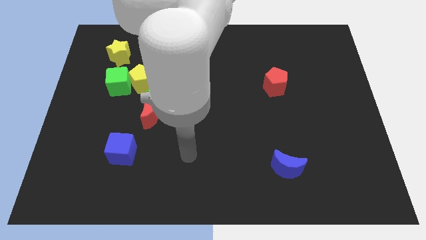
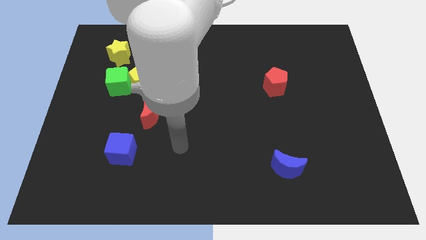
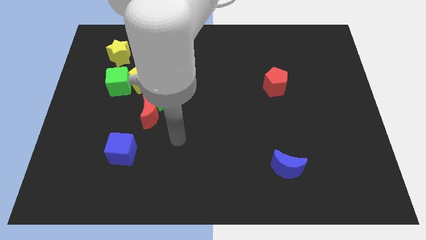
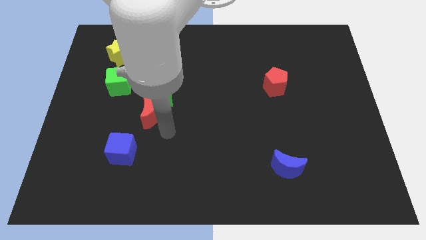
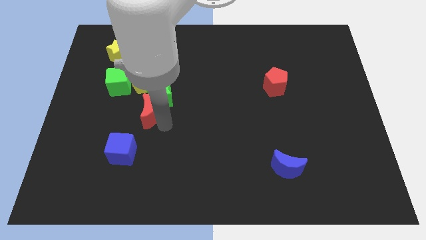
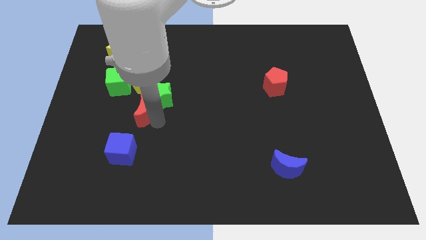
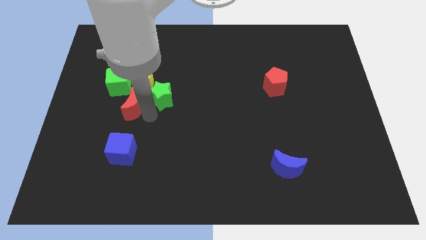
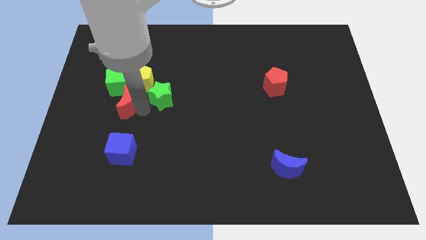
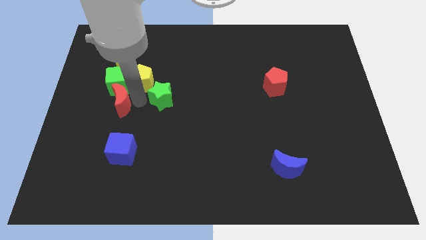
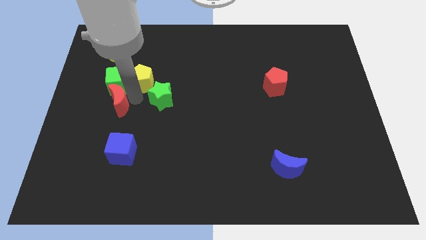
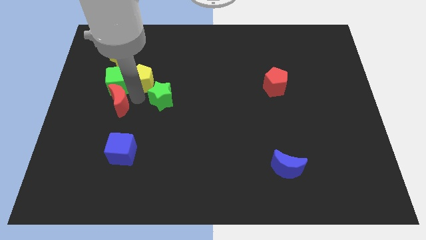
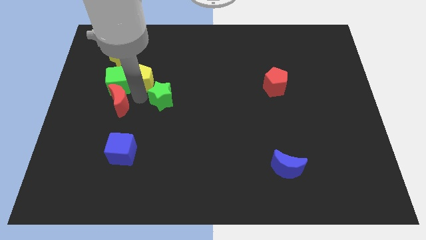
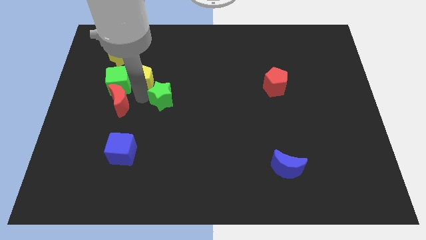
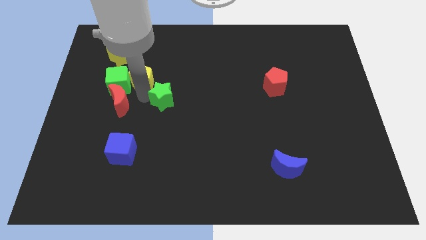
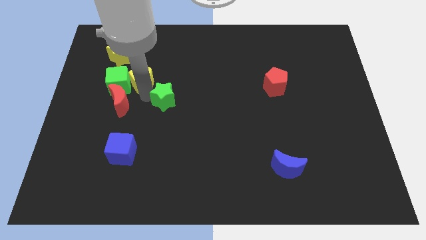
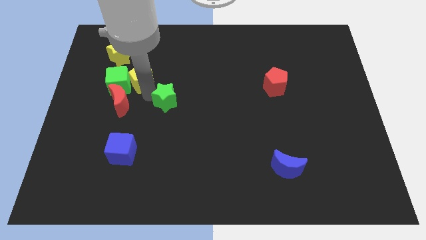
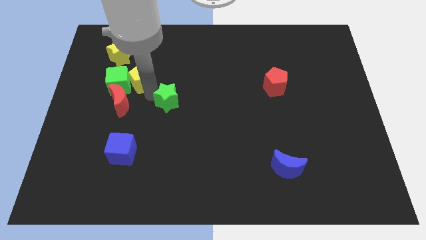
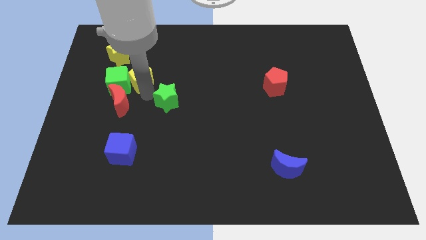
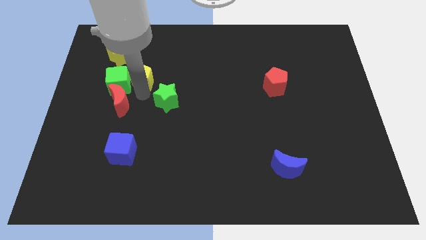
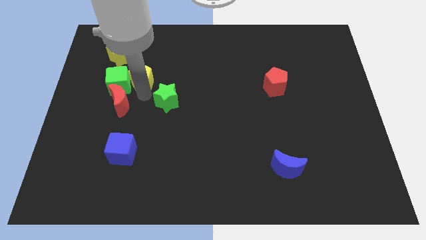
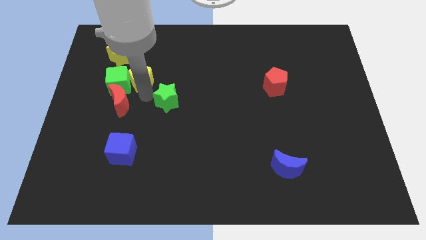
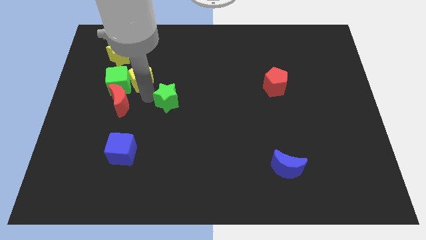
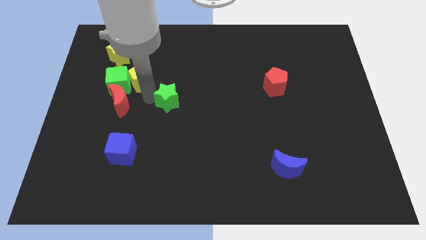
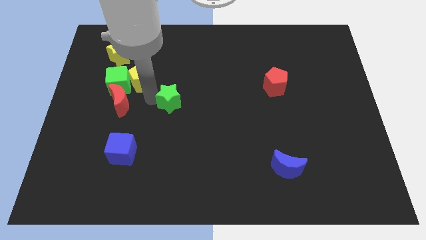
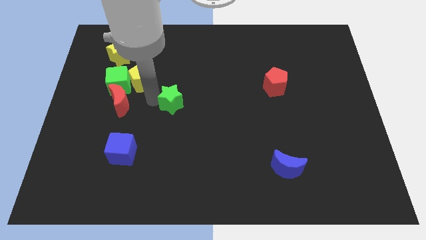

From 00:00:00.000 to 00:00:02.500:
move the green star away from the red moon and yellow pentagon

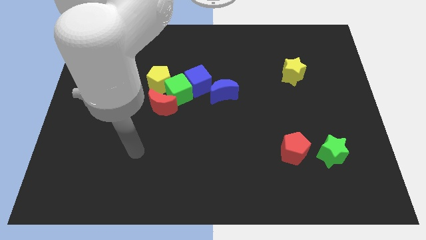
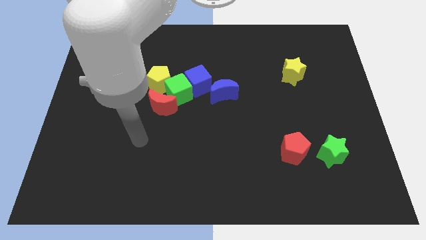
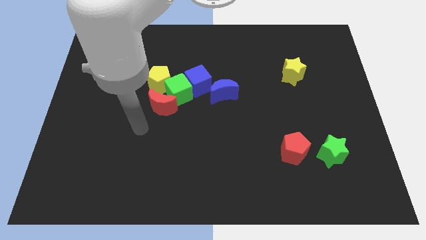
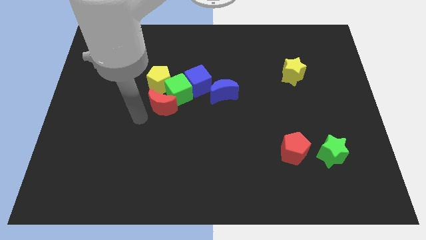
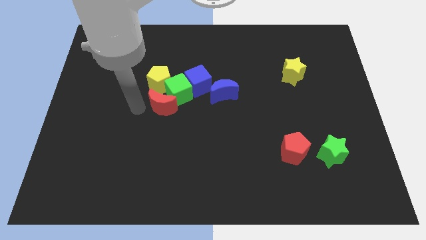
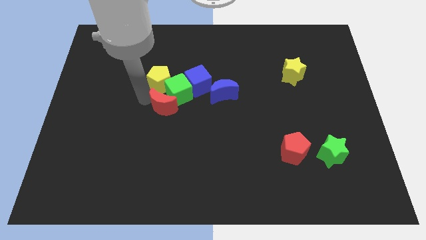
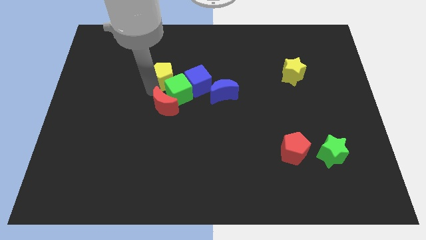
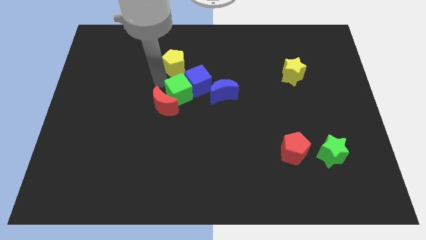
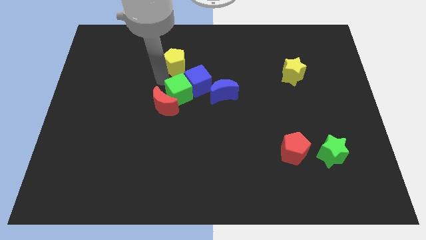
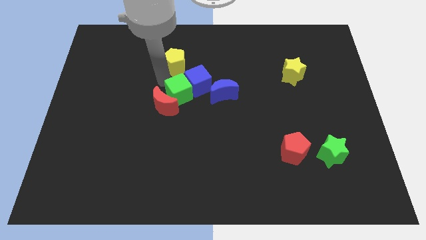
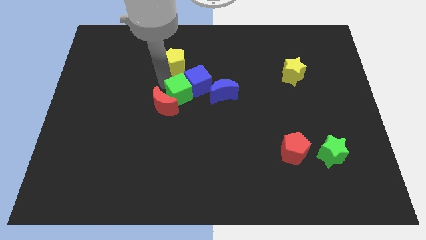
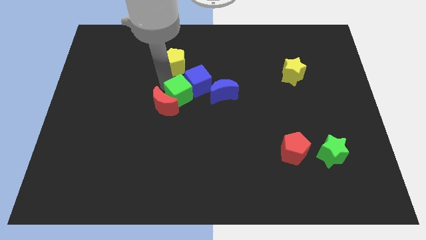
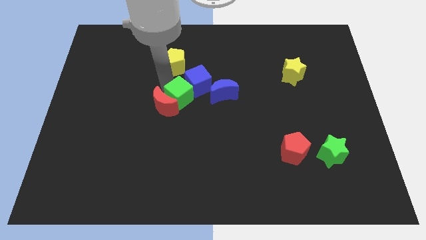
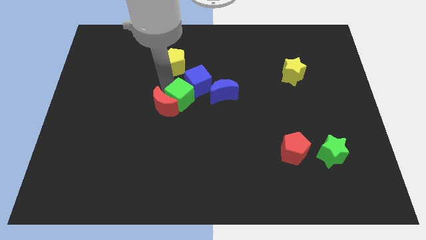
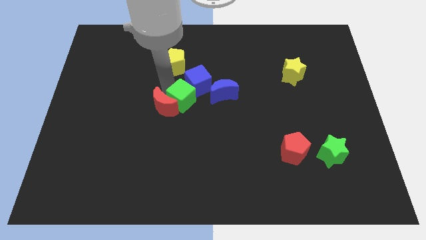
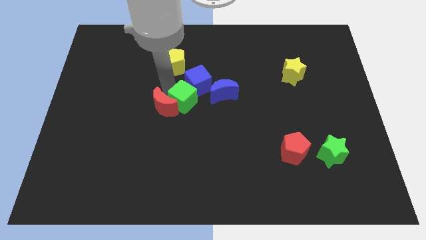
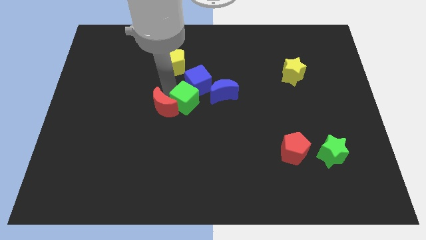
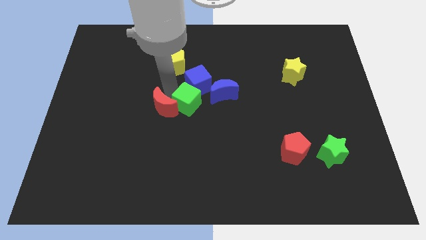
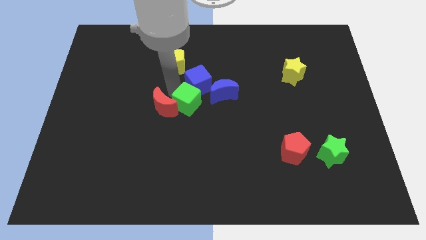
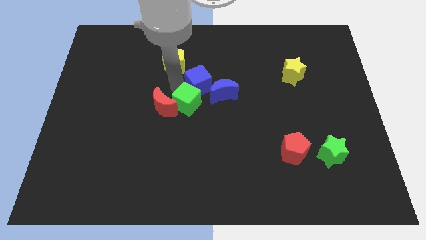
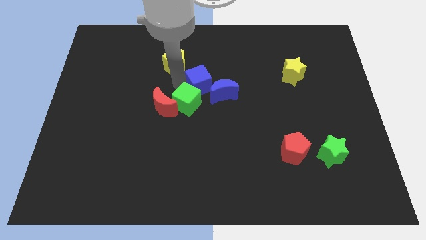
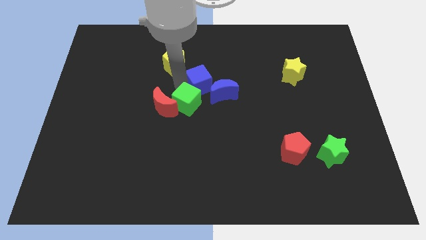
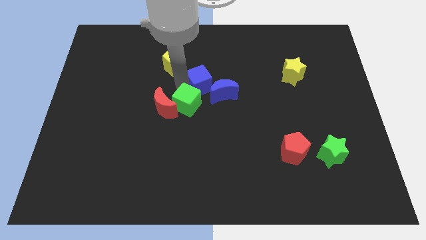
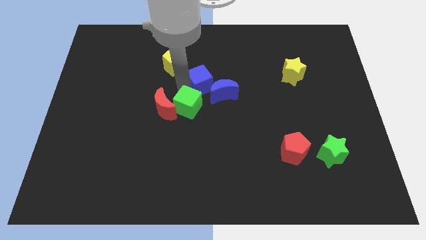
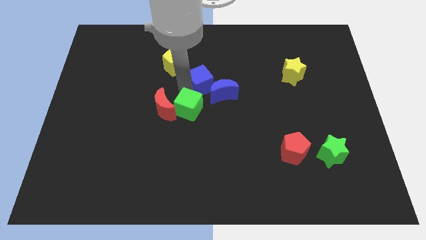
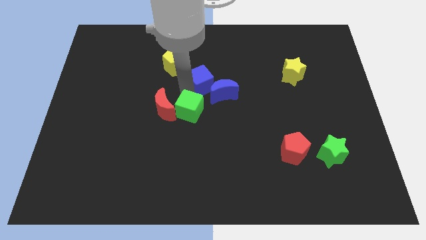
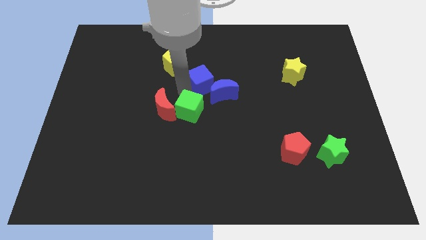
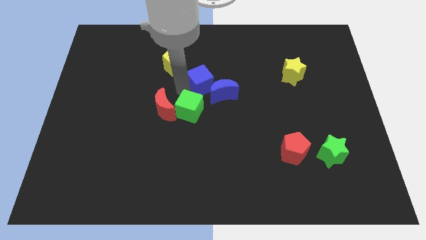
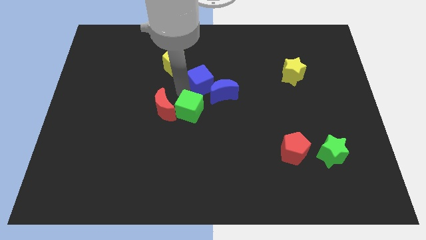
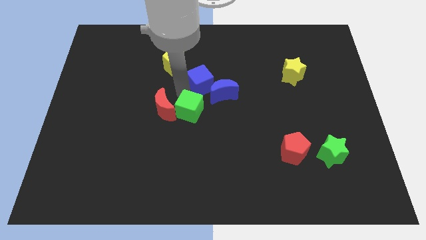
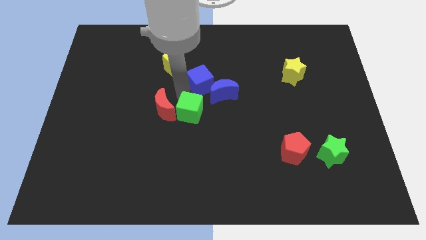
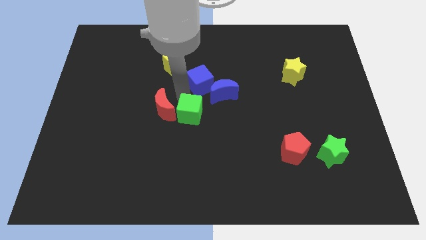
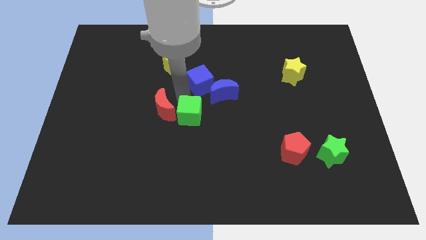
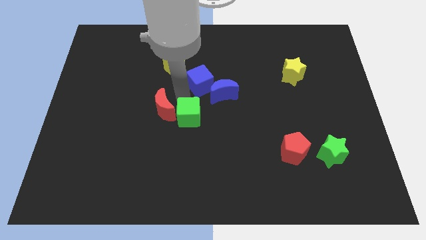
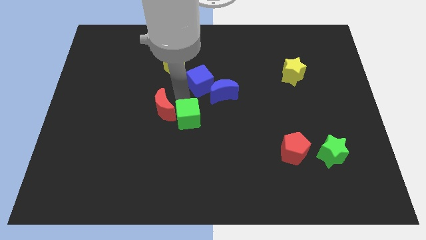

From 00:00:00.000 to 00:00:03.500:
separate the green cube from the blue cube, yellow pentagon, and red moon

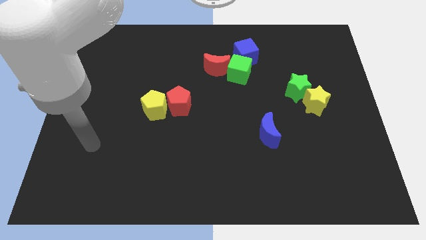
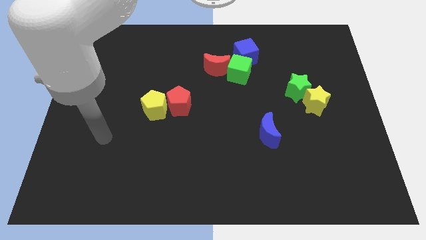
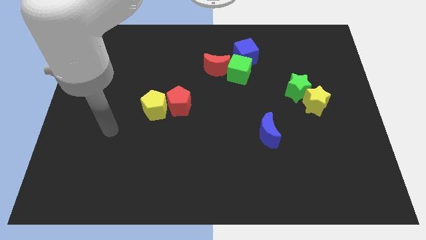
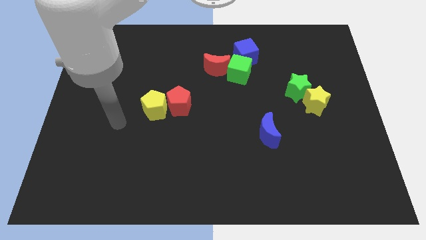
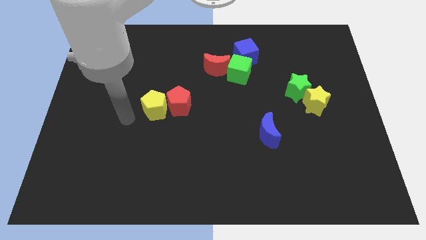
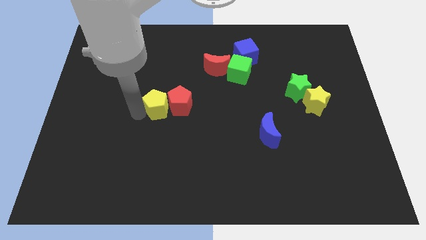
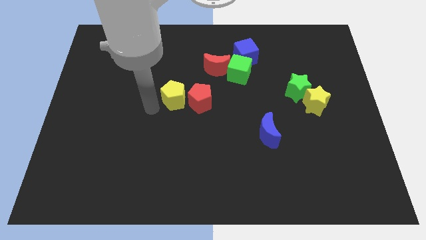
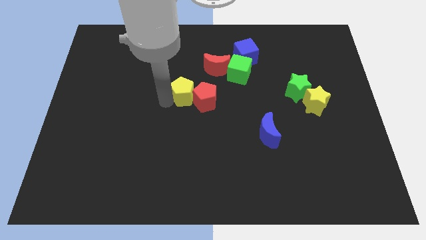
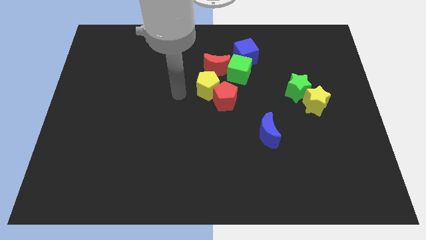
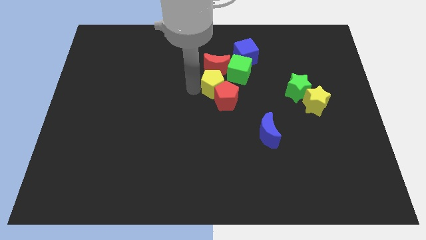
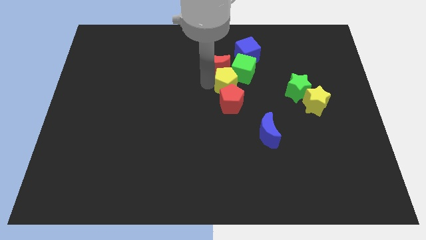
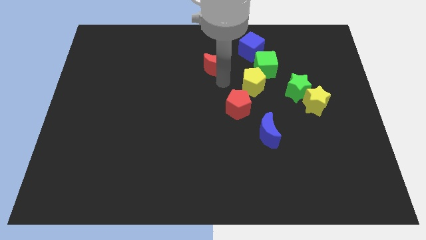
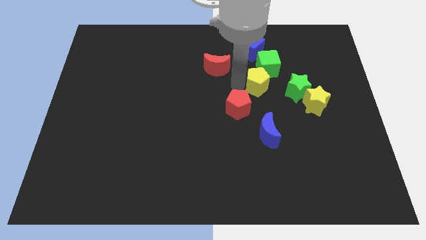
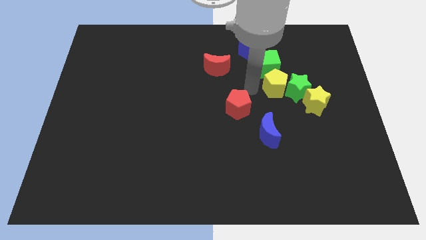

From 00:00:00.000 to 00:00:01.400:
pull the red pentagon apart from the yellow pentagon

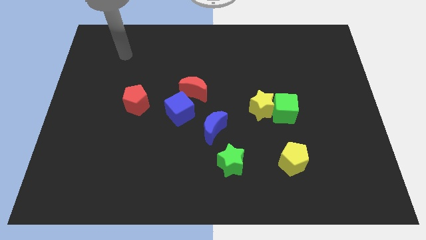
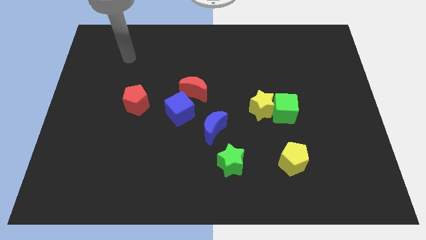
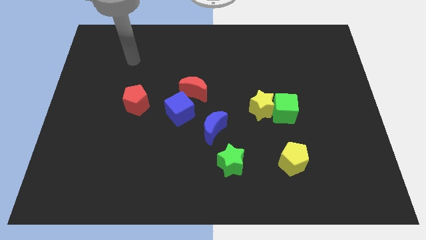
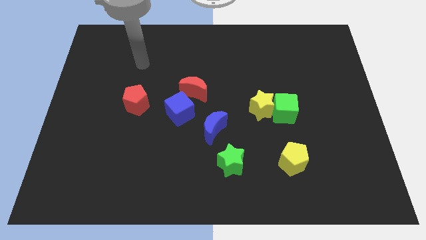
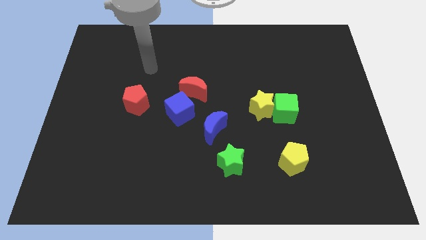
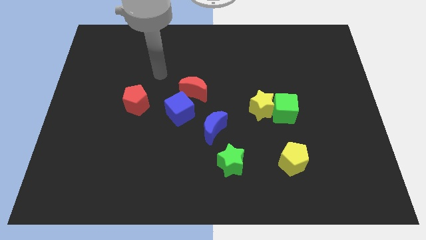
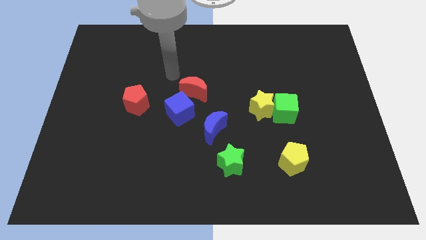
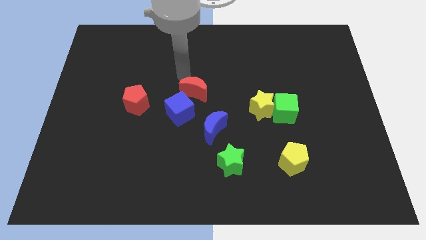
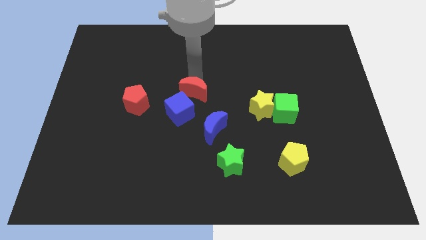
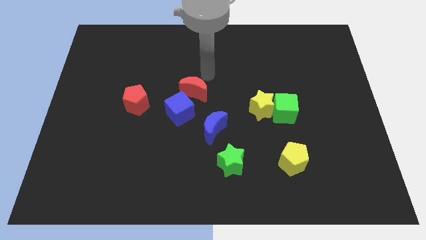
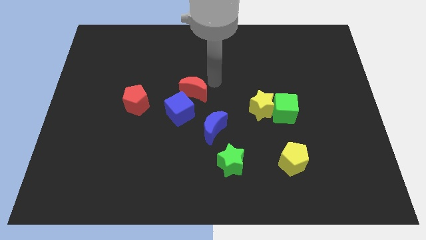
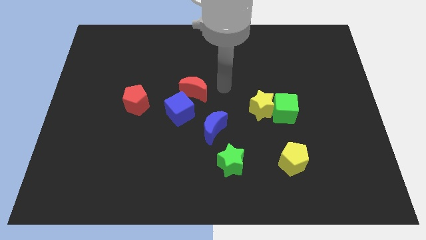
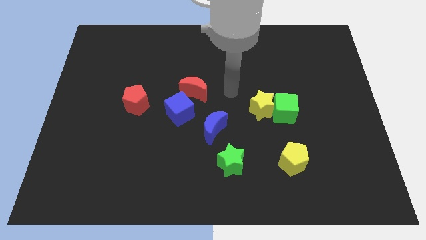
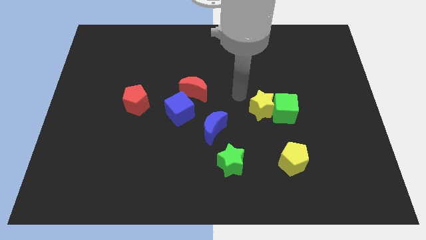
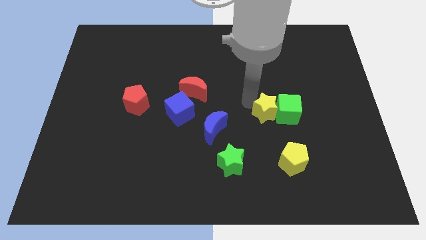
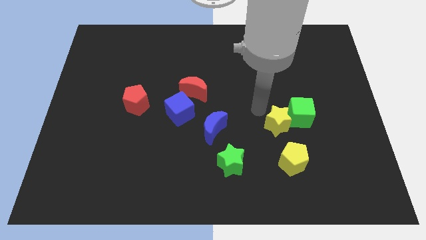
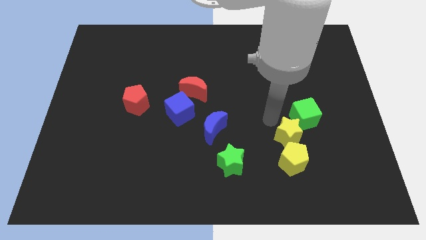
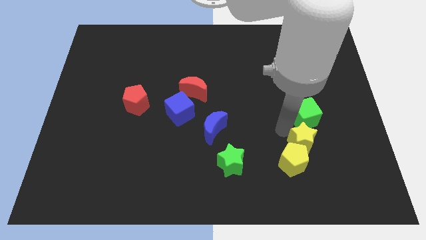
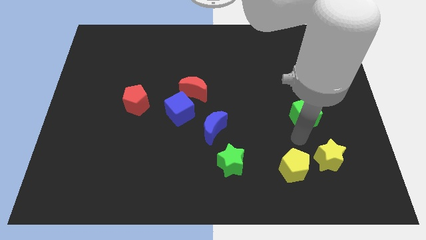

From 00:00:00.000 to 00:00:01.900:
pull the green cube apart from the yellow star
